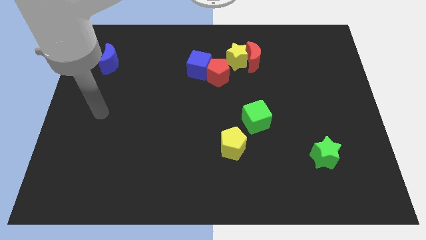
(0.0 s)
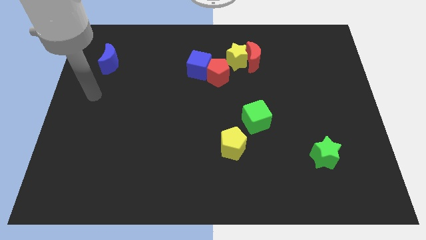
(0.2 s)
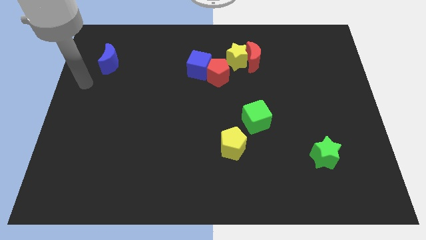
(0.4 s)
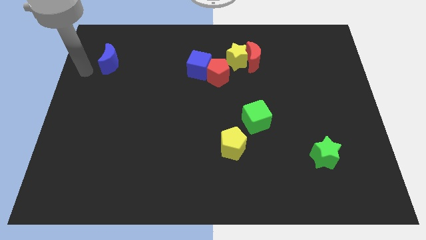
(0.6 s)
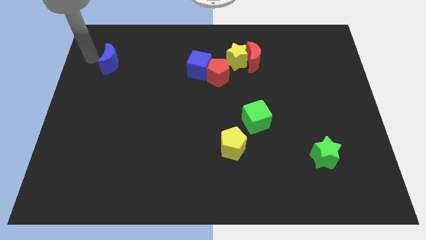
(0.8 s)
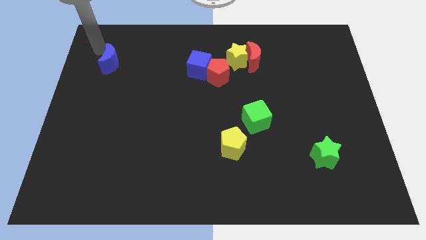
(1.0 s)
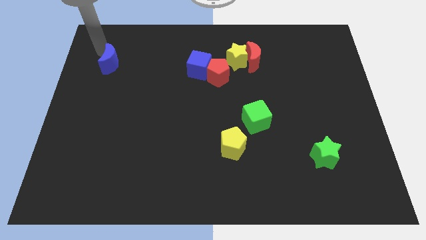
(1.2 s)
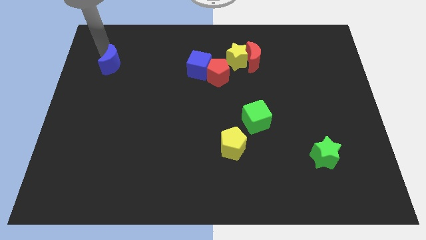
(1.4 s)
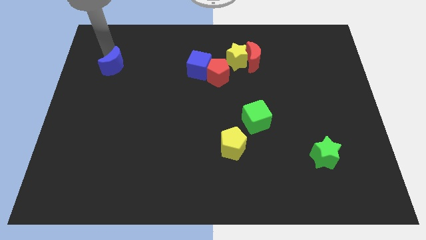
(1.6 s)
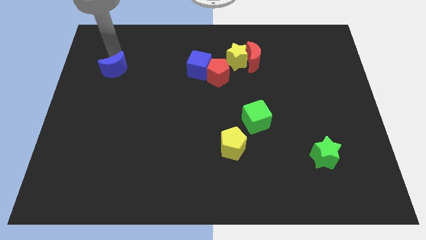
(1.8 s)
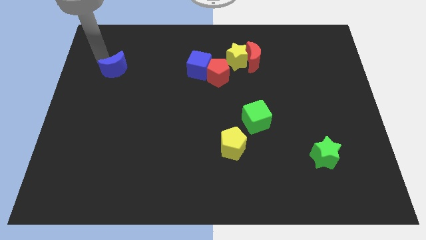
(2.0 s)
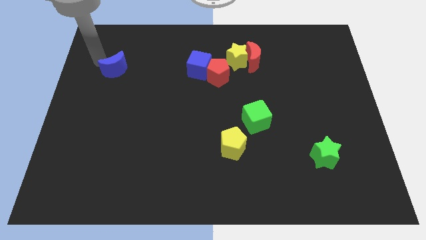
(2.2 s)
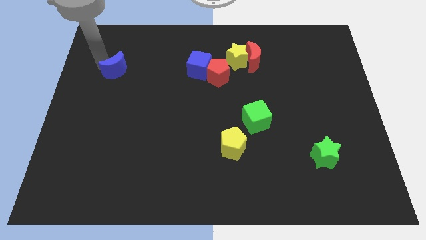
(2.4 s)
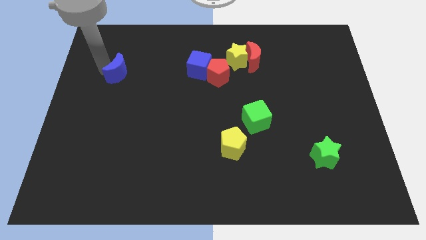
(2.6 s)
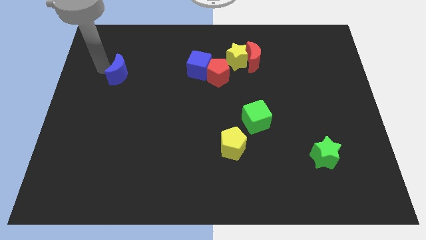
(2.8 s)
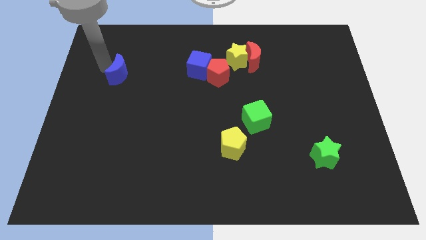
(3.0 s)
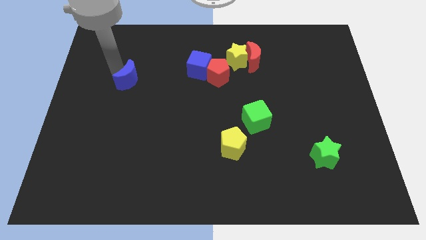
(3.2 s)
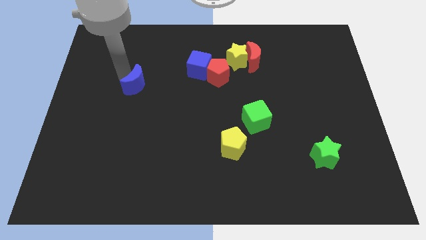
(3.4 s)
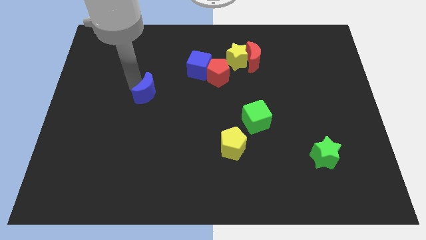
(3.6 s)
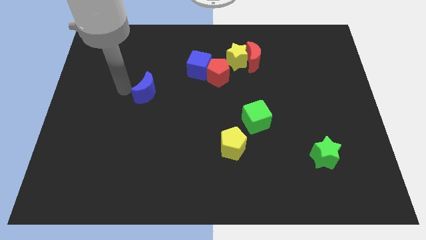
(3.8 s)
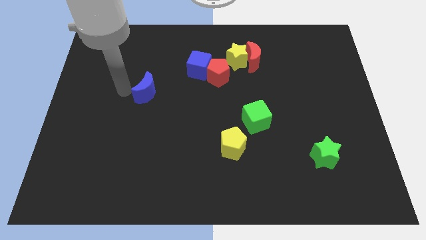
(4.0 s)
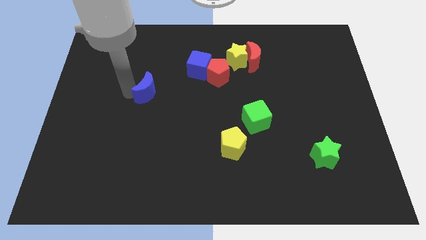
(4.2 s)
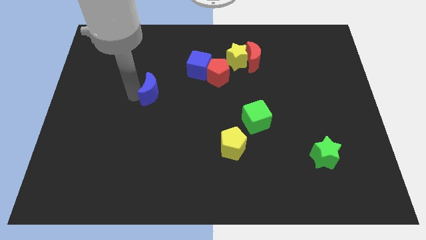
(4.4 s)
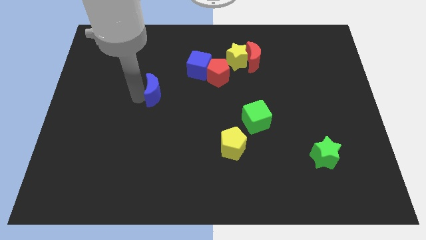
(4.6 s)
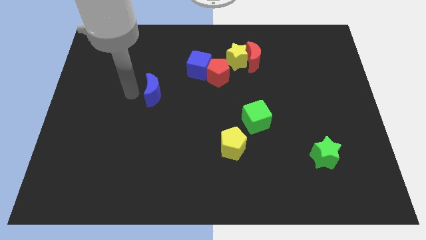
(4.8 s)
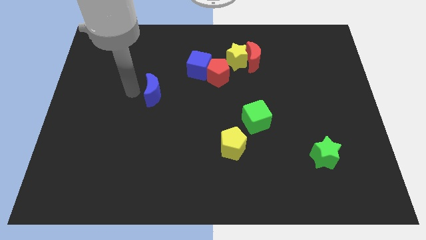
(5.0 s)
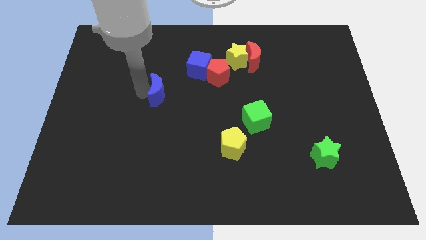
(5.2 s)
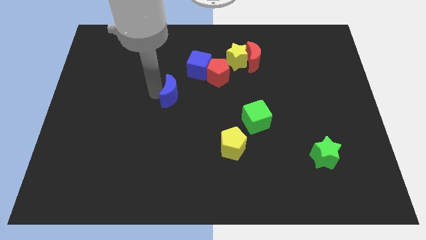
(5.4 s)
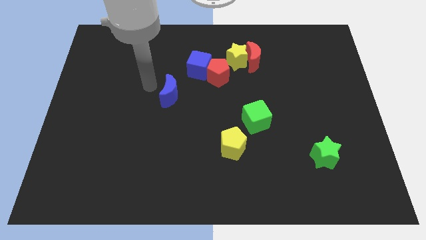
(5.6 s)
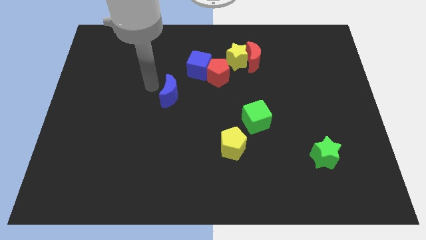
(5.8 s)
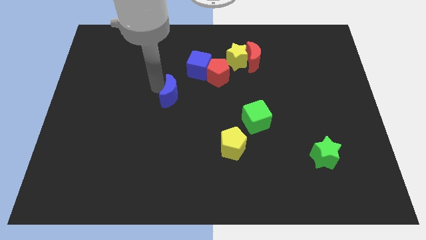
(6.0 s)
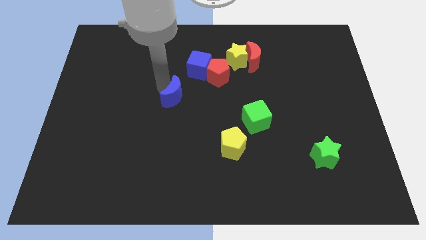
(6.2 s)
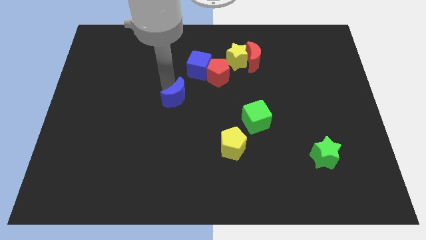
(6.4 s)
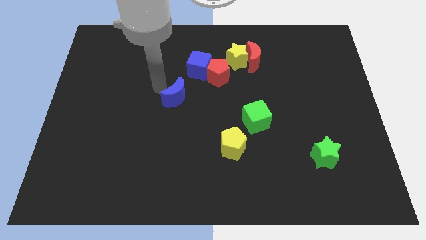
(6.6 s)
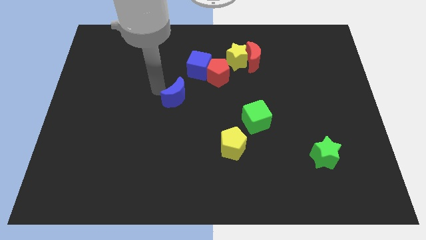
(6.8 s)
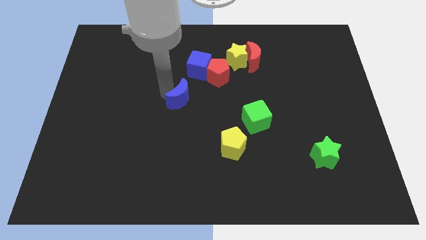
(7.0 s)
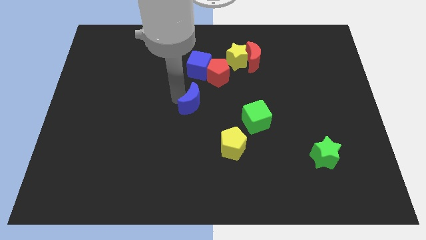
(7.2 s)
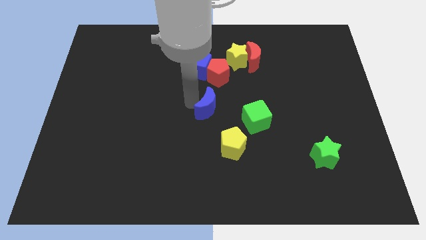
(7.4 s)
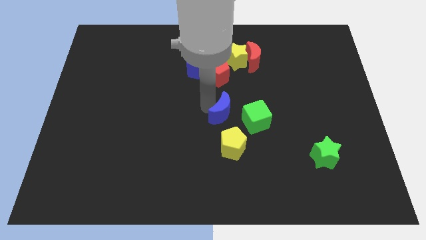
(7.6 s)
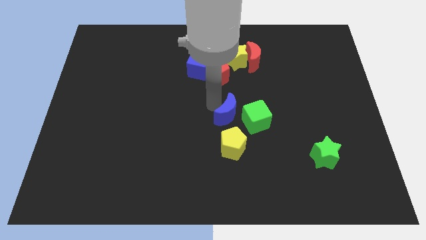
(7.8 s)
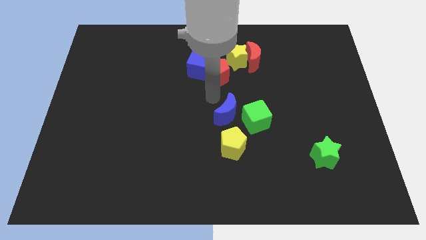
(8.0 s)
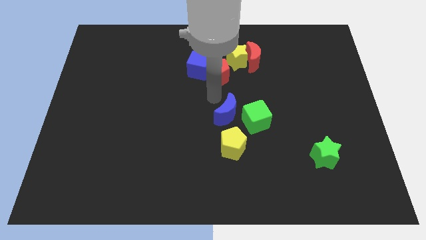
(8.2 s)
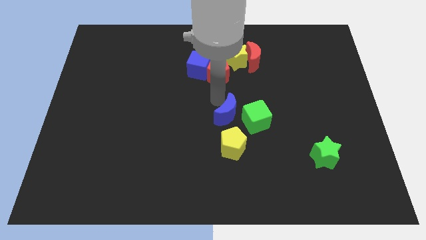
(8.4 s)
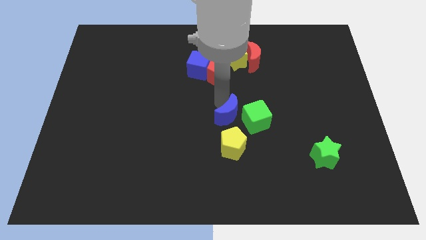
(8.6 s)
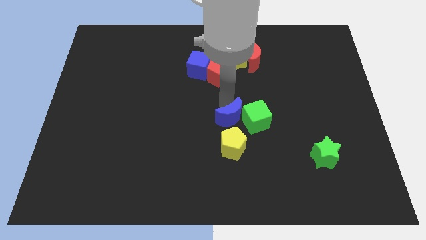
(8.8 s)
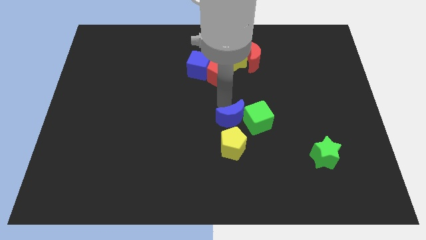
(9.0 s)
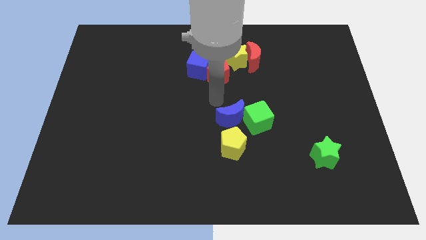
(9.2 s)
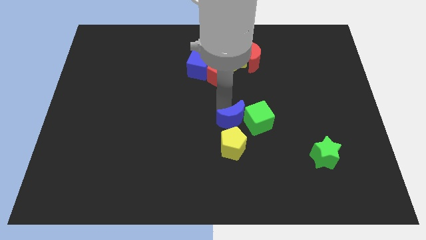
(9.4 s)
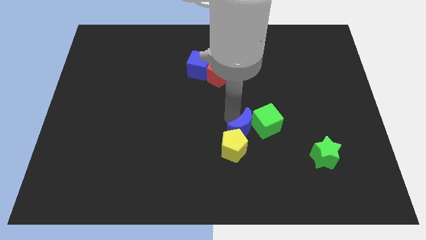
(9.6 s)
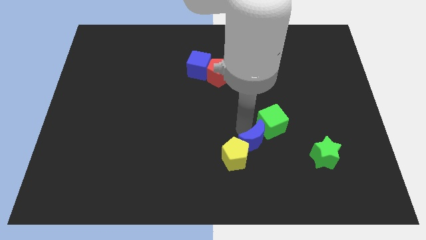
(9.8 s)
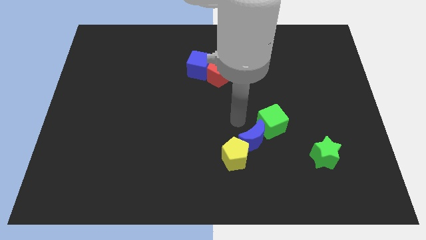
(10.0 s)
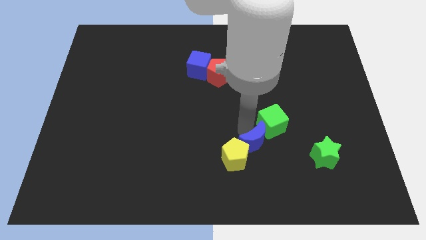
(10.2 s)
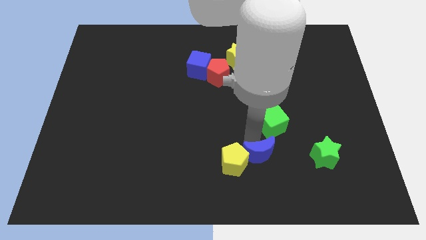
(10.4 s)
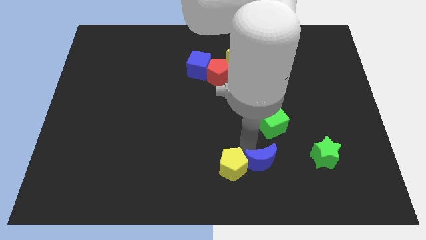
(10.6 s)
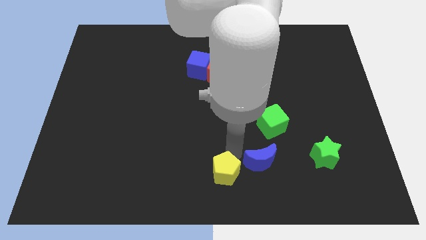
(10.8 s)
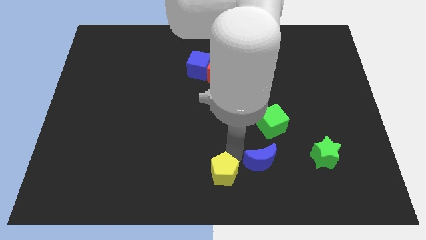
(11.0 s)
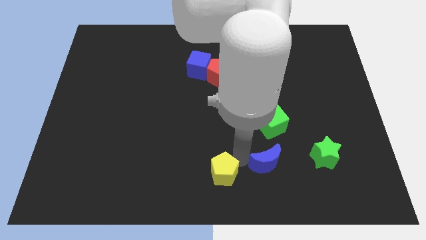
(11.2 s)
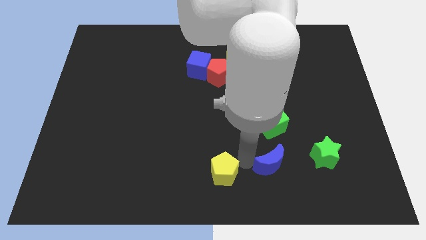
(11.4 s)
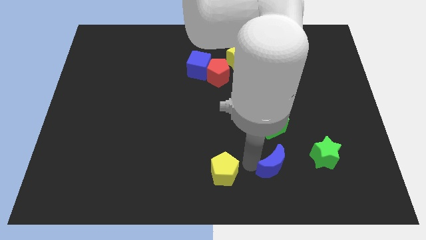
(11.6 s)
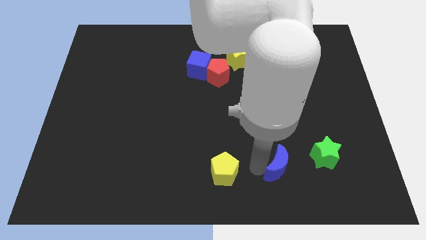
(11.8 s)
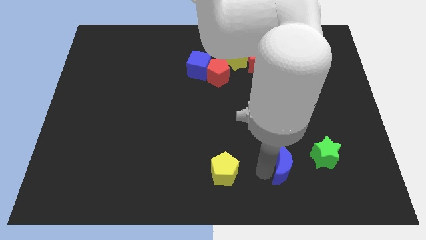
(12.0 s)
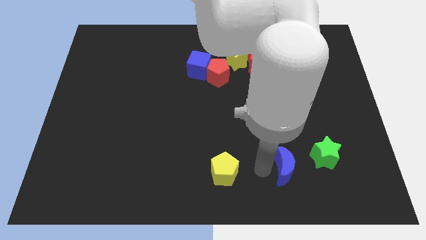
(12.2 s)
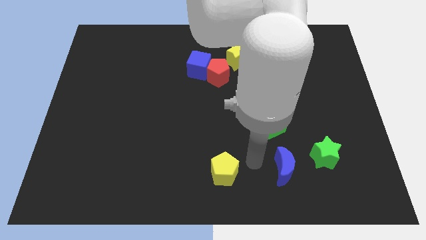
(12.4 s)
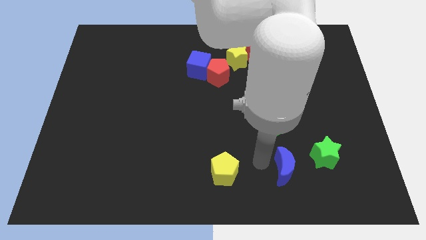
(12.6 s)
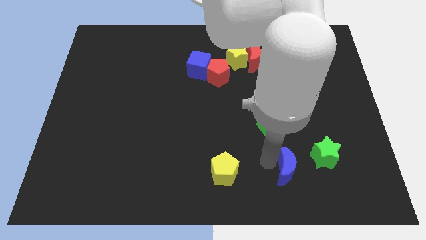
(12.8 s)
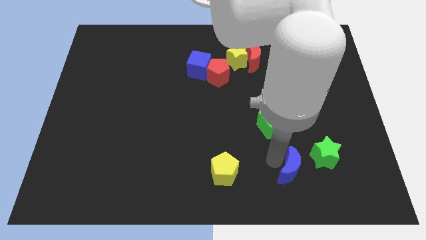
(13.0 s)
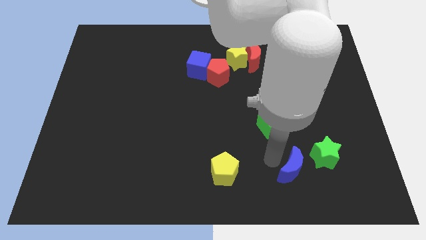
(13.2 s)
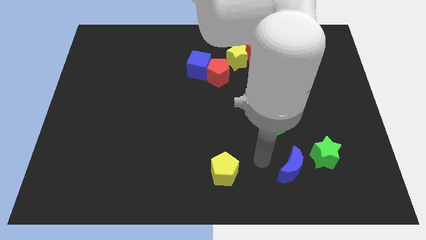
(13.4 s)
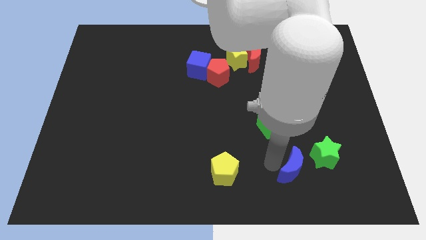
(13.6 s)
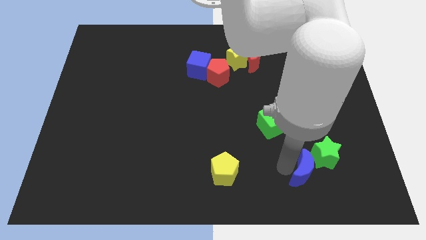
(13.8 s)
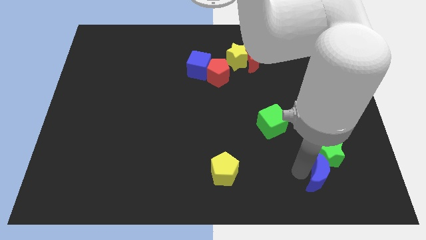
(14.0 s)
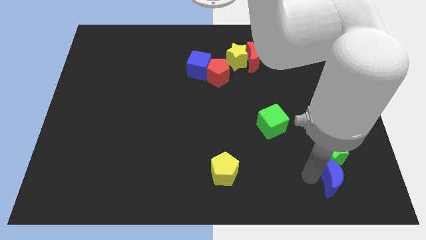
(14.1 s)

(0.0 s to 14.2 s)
push the blue moon to the bottom right of the green star
